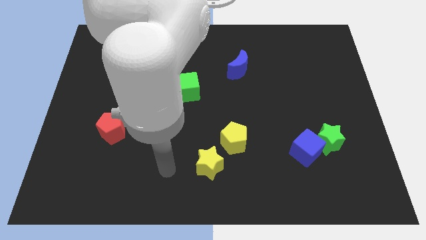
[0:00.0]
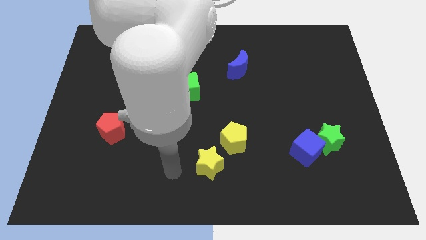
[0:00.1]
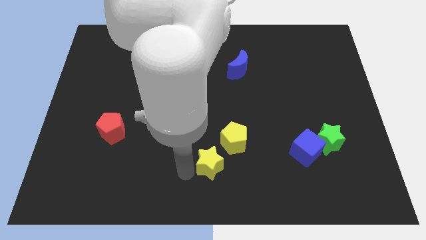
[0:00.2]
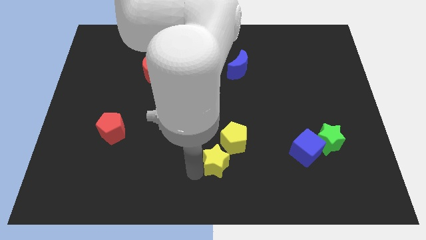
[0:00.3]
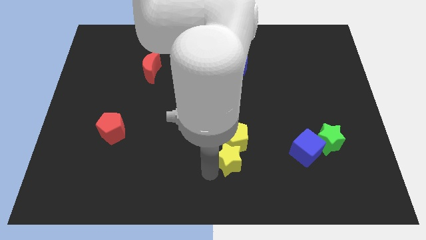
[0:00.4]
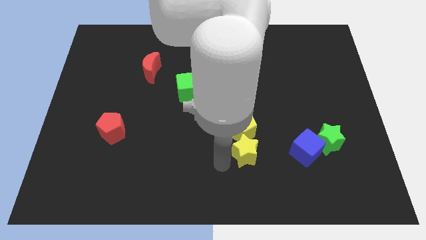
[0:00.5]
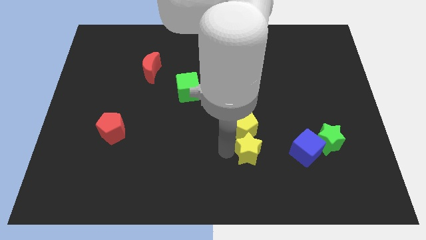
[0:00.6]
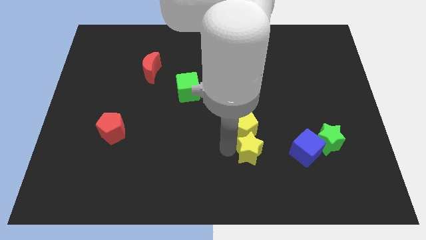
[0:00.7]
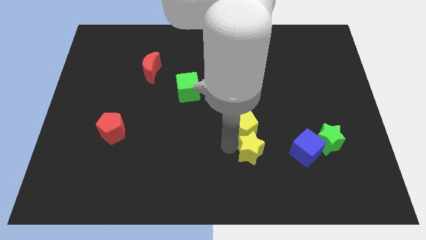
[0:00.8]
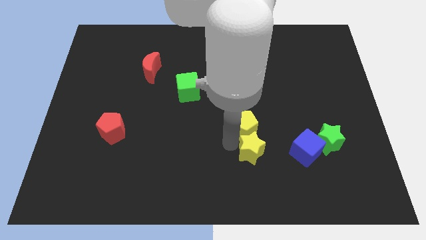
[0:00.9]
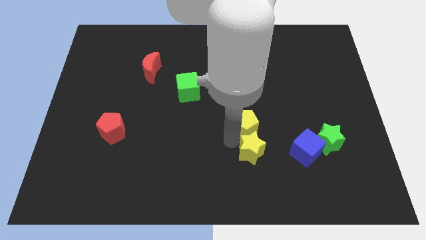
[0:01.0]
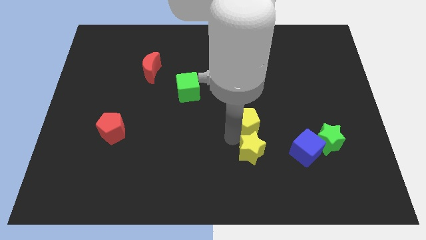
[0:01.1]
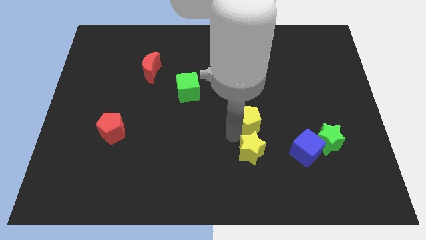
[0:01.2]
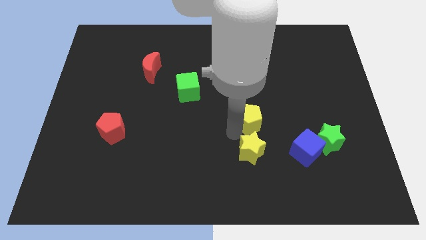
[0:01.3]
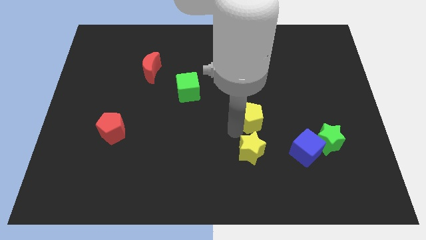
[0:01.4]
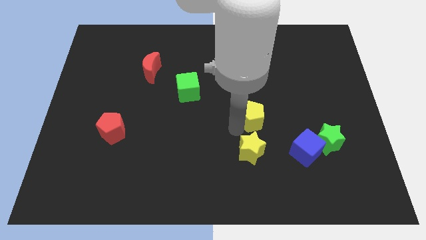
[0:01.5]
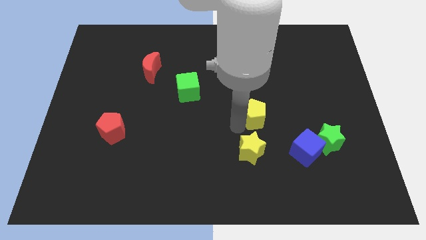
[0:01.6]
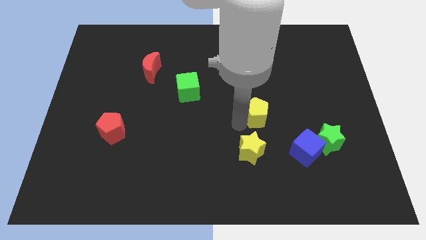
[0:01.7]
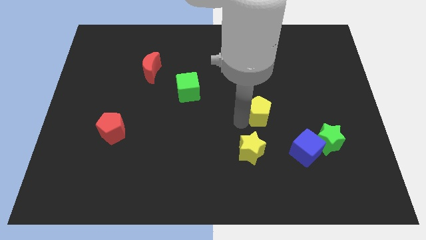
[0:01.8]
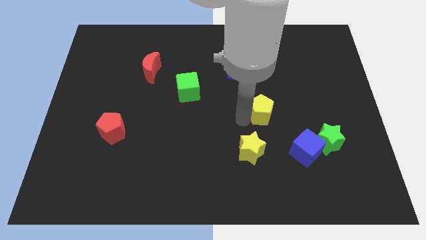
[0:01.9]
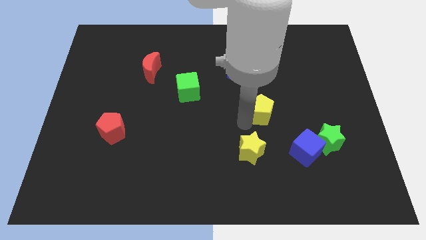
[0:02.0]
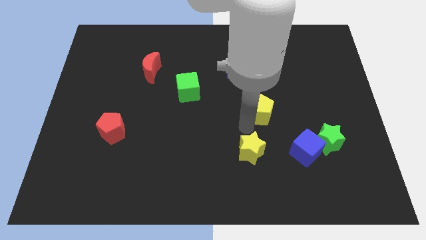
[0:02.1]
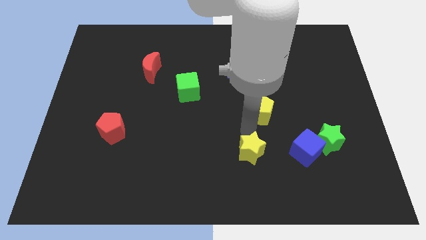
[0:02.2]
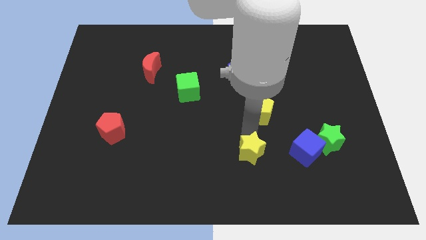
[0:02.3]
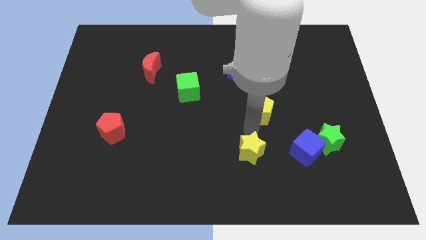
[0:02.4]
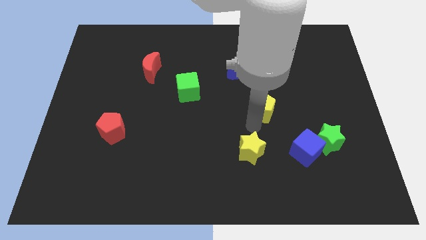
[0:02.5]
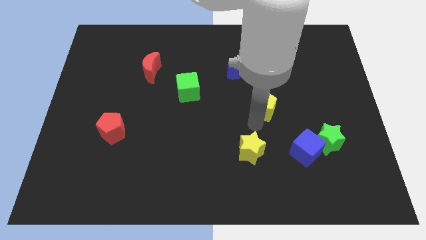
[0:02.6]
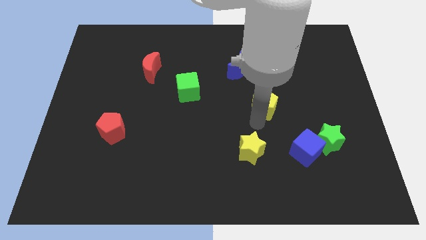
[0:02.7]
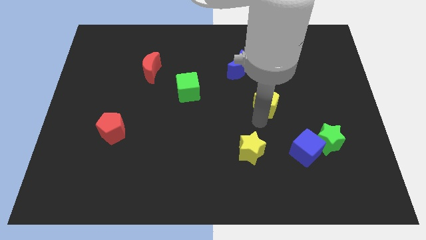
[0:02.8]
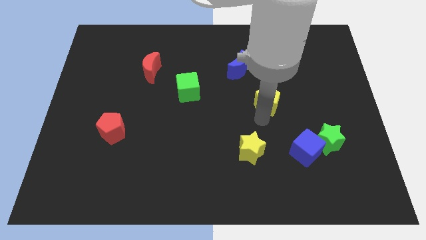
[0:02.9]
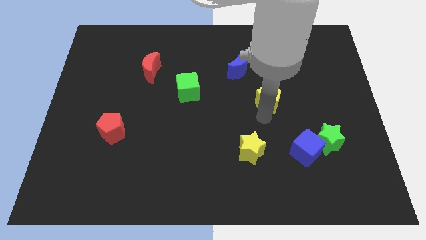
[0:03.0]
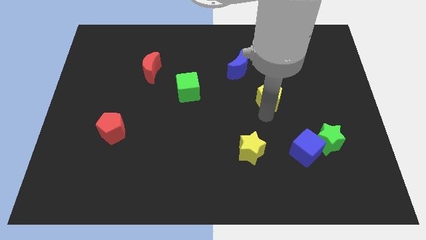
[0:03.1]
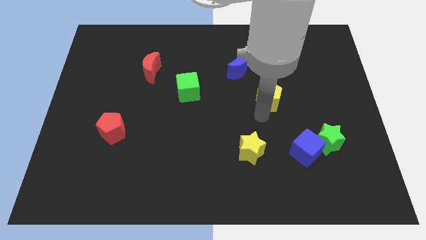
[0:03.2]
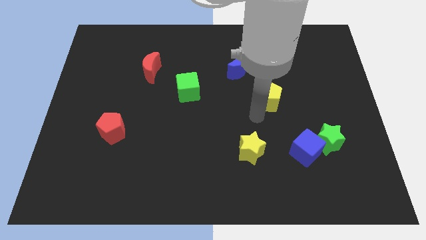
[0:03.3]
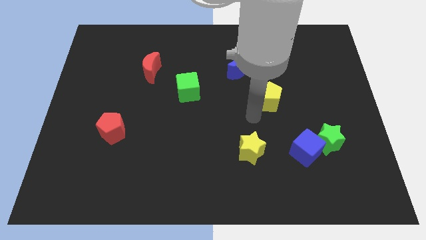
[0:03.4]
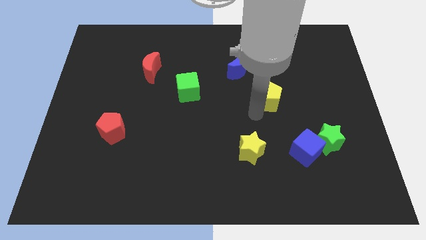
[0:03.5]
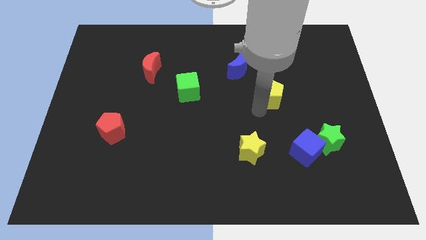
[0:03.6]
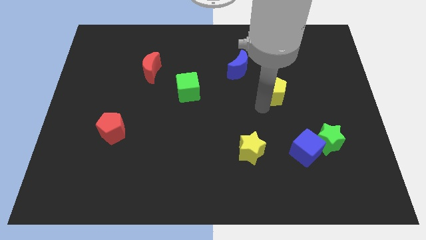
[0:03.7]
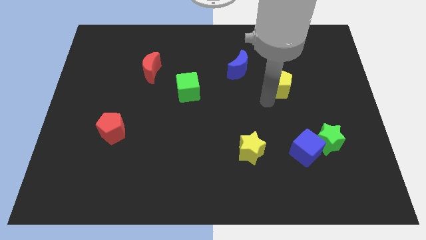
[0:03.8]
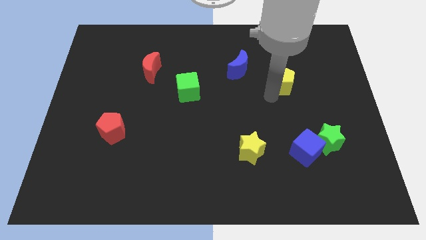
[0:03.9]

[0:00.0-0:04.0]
move the yellow pentagon up and to the right diagonally

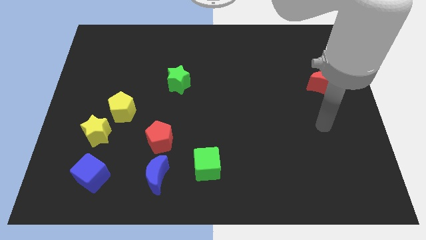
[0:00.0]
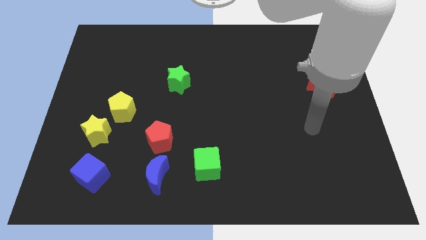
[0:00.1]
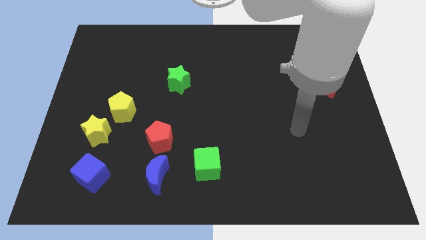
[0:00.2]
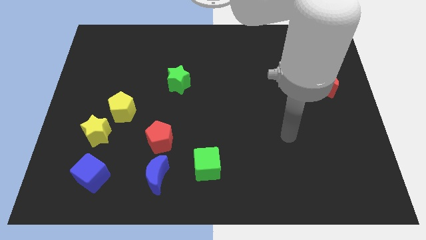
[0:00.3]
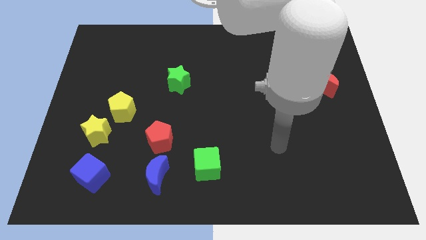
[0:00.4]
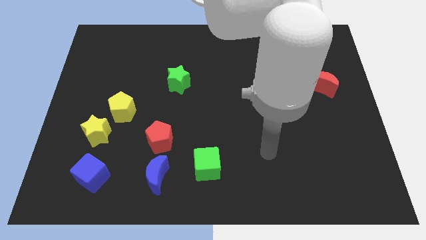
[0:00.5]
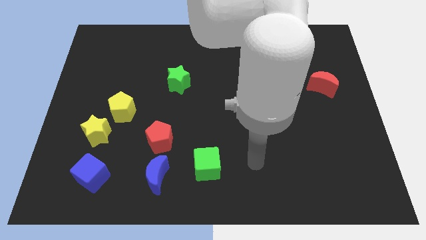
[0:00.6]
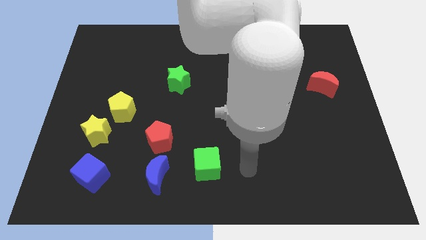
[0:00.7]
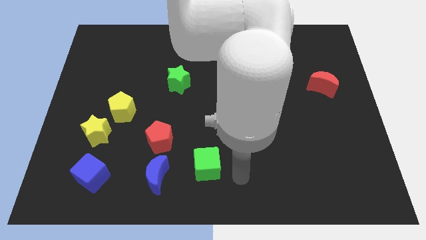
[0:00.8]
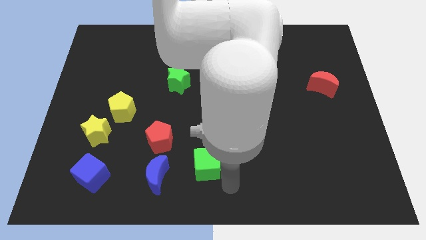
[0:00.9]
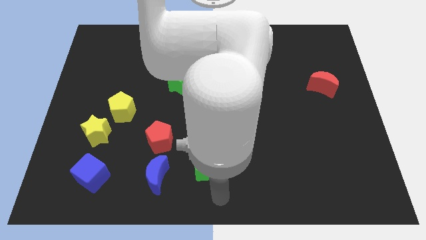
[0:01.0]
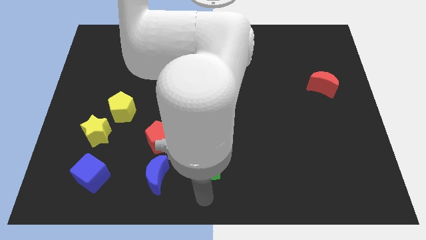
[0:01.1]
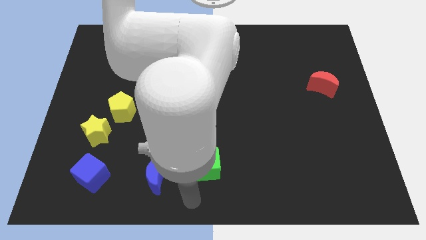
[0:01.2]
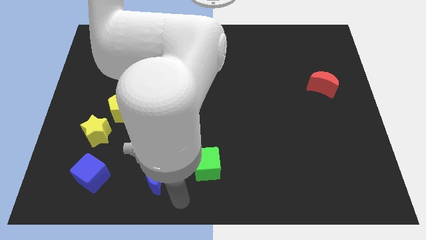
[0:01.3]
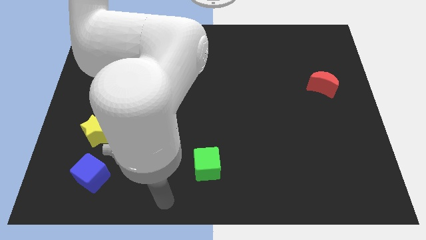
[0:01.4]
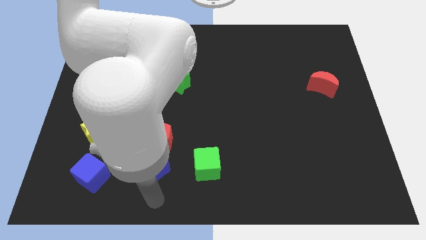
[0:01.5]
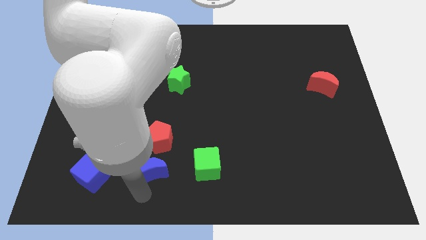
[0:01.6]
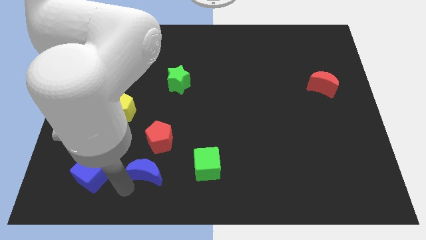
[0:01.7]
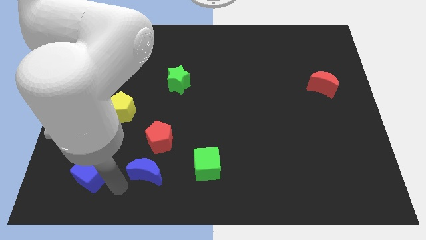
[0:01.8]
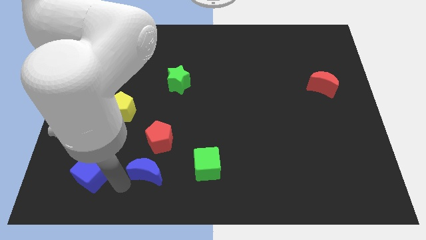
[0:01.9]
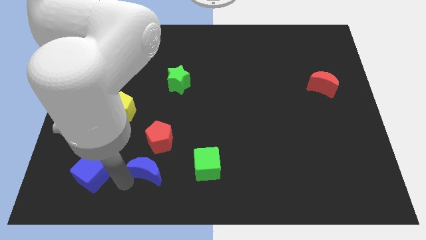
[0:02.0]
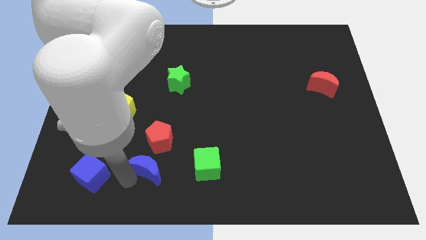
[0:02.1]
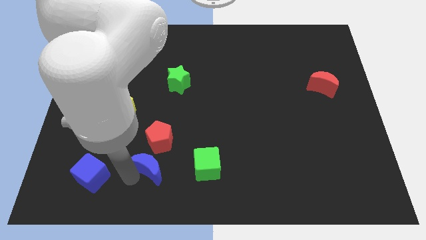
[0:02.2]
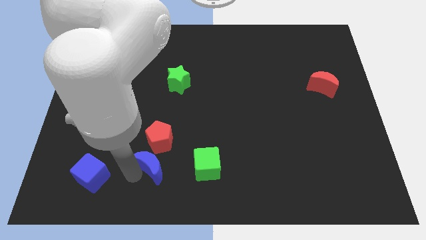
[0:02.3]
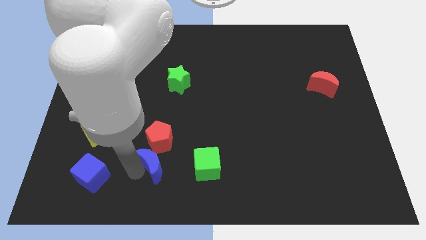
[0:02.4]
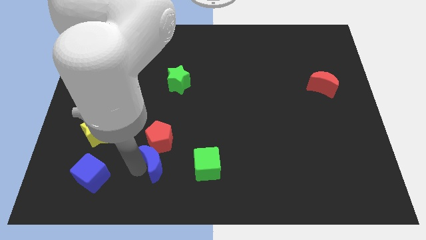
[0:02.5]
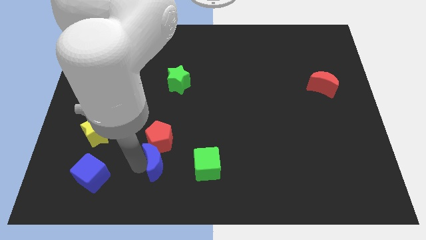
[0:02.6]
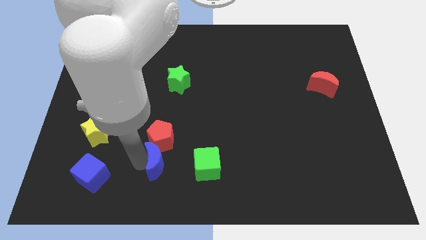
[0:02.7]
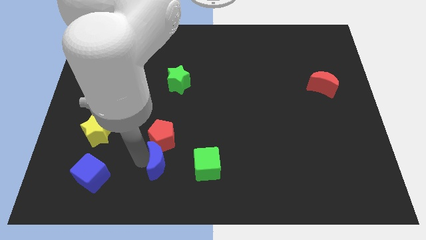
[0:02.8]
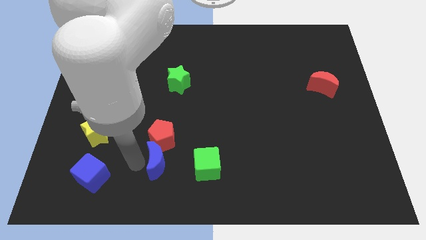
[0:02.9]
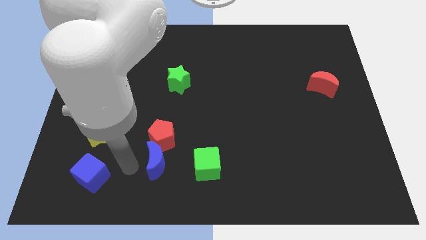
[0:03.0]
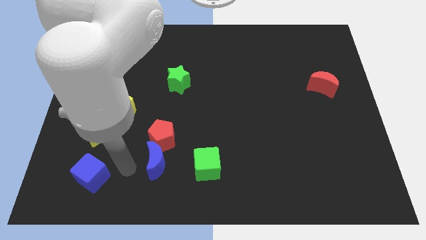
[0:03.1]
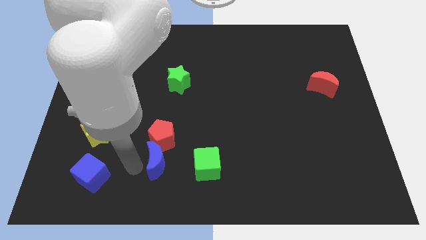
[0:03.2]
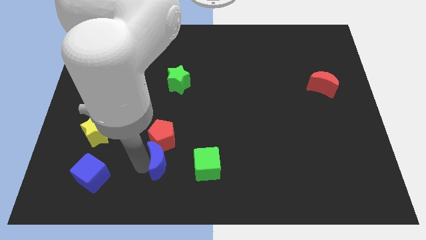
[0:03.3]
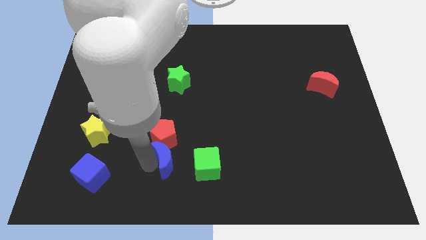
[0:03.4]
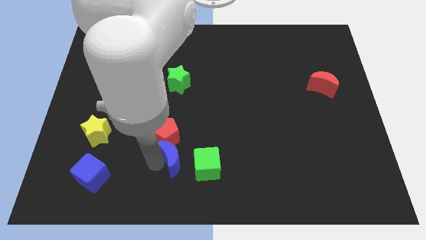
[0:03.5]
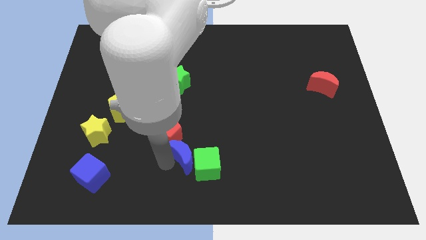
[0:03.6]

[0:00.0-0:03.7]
slide the blue moon up and then right slightly
